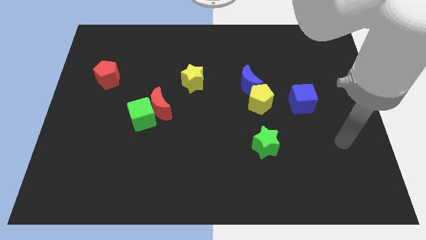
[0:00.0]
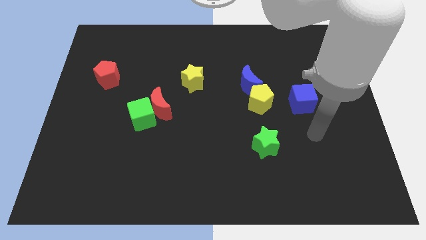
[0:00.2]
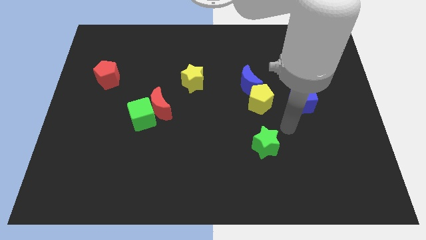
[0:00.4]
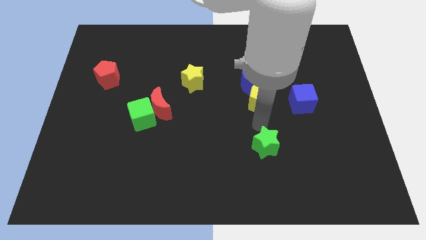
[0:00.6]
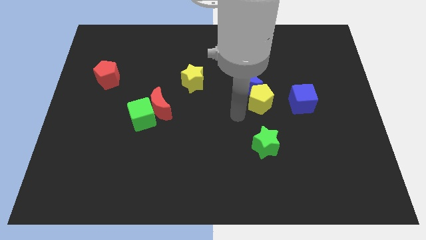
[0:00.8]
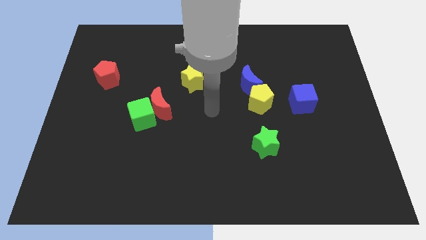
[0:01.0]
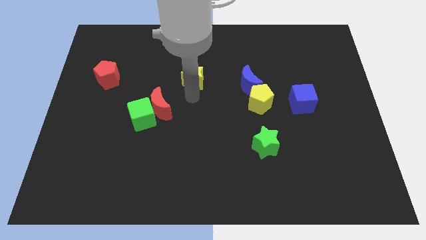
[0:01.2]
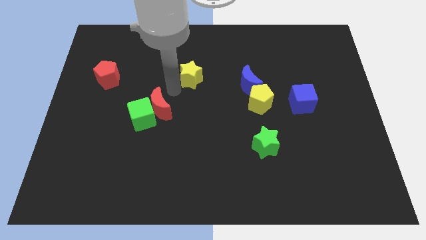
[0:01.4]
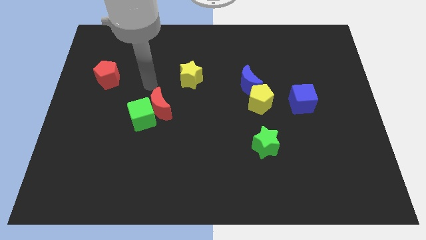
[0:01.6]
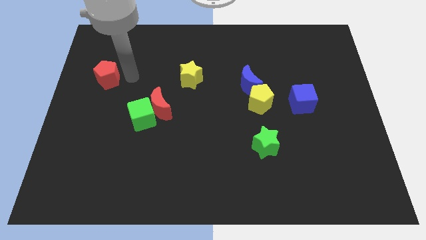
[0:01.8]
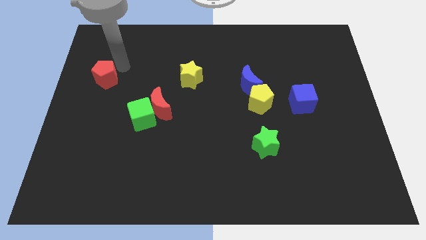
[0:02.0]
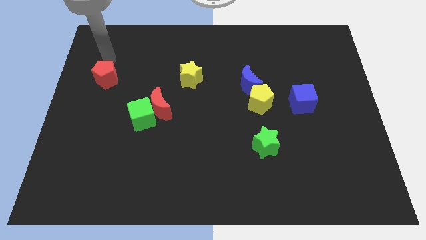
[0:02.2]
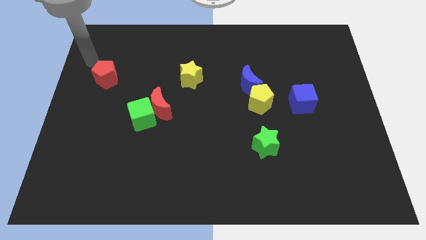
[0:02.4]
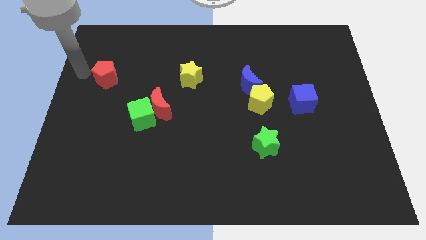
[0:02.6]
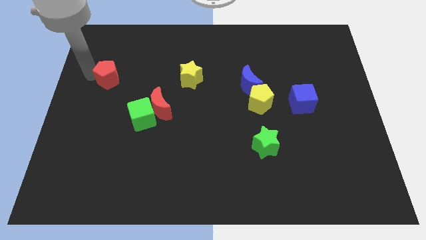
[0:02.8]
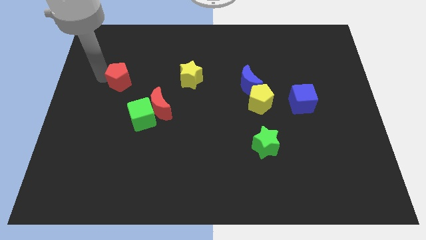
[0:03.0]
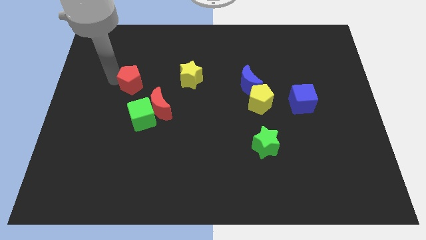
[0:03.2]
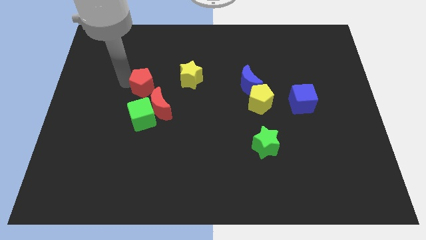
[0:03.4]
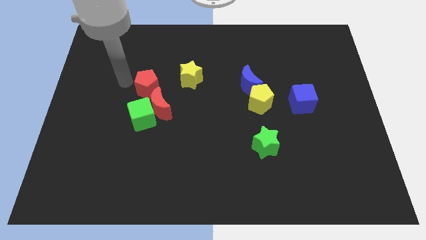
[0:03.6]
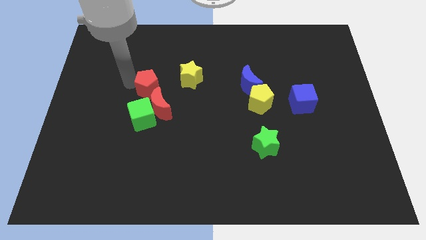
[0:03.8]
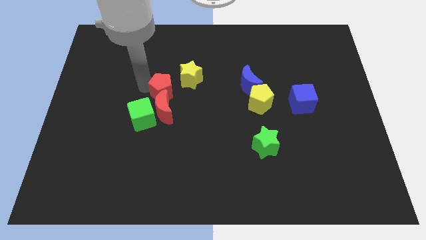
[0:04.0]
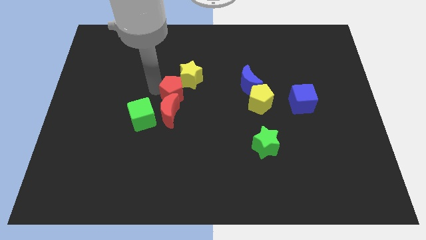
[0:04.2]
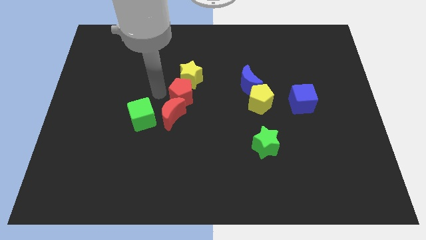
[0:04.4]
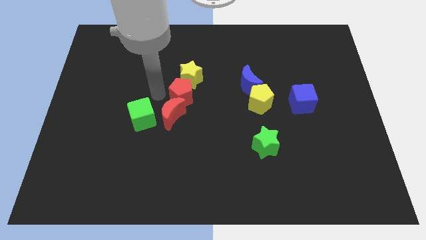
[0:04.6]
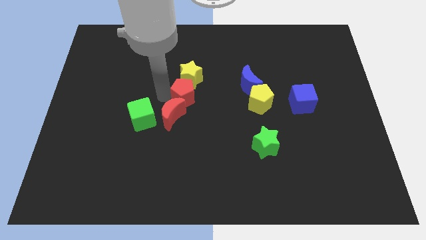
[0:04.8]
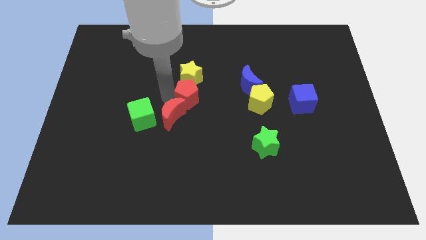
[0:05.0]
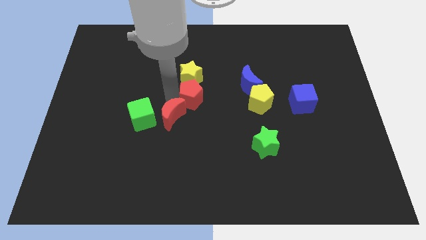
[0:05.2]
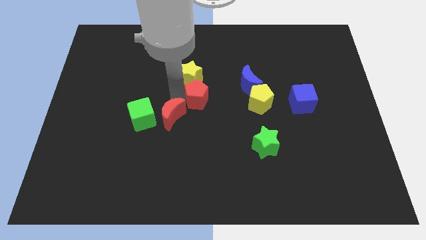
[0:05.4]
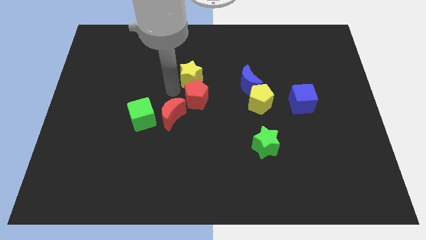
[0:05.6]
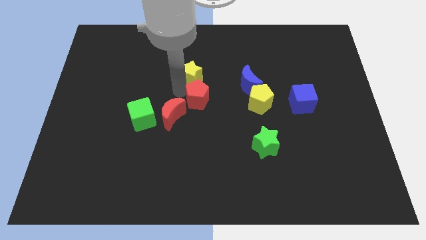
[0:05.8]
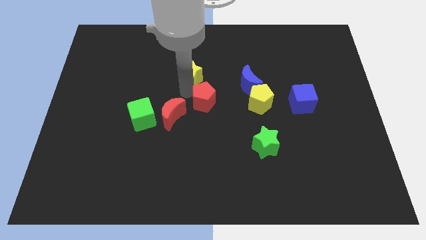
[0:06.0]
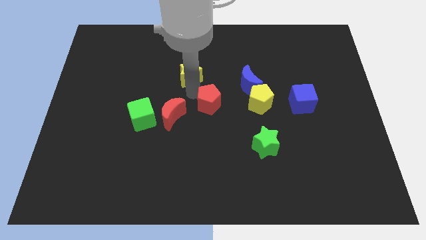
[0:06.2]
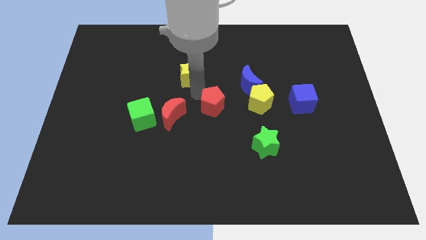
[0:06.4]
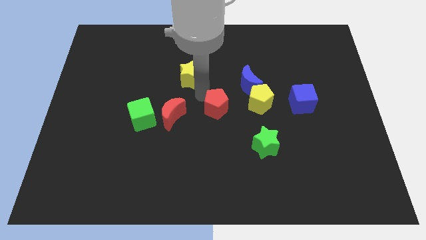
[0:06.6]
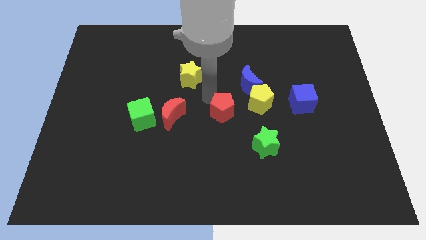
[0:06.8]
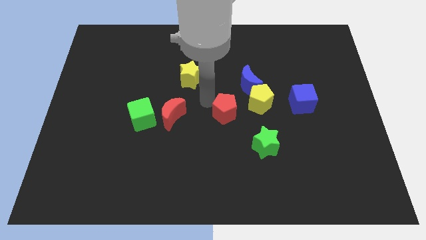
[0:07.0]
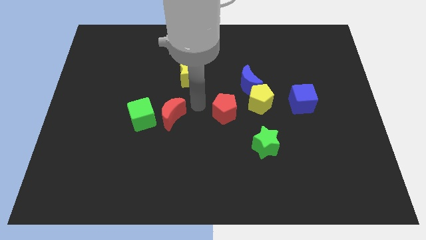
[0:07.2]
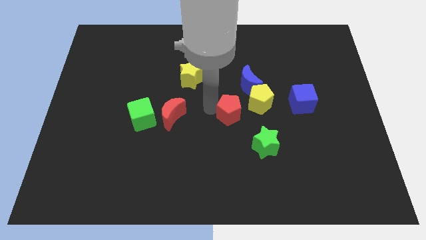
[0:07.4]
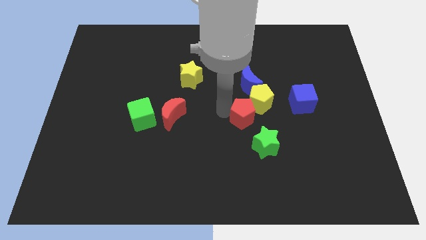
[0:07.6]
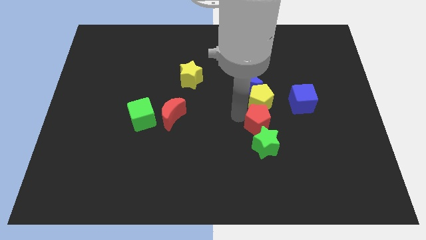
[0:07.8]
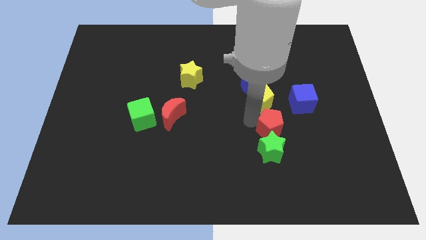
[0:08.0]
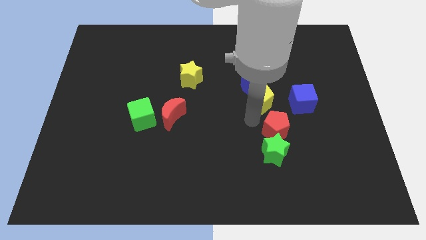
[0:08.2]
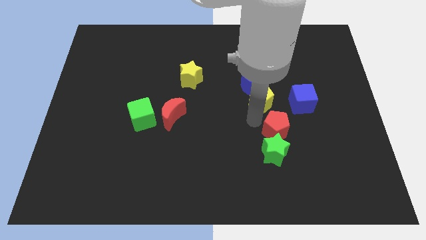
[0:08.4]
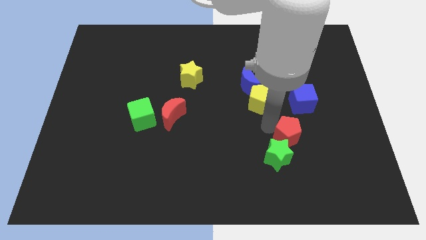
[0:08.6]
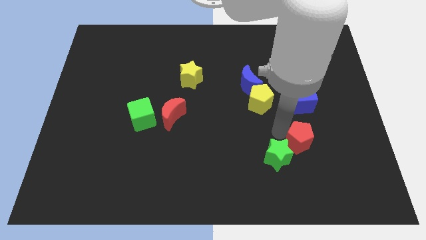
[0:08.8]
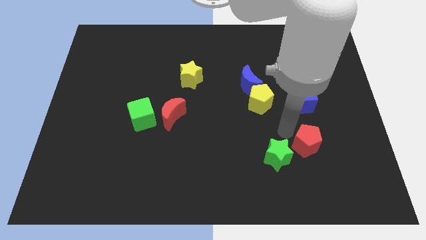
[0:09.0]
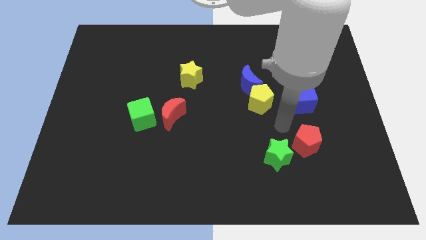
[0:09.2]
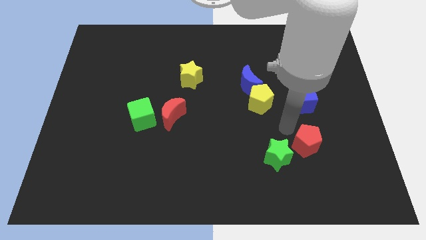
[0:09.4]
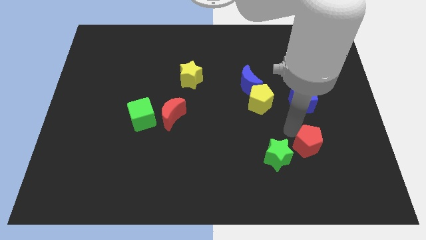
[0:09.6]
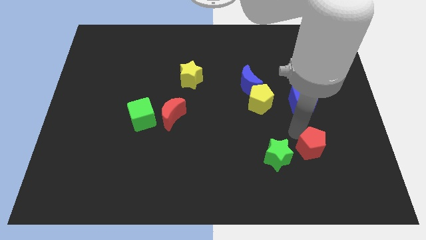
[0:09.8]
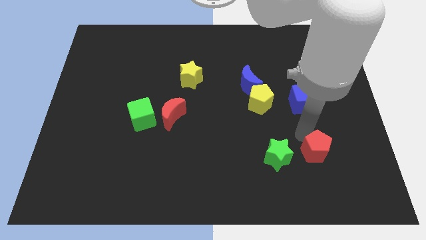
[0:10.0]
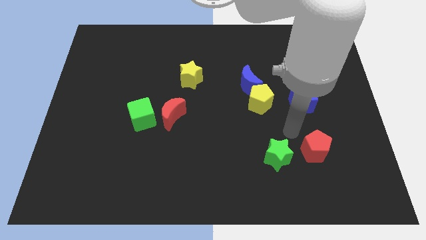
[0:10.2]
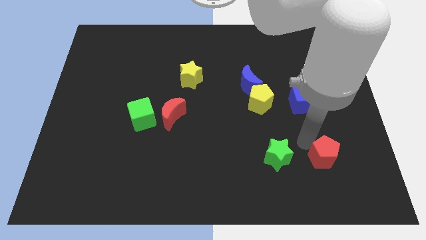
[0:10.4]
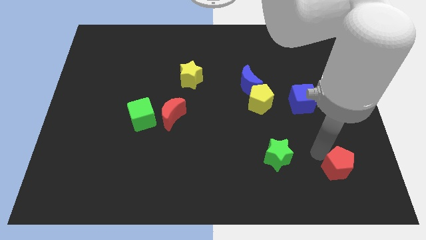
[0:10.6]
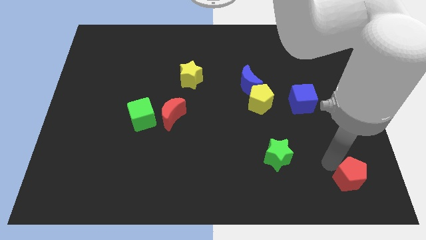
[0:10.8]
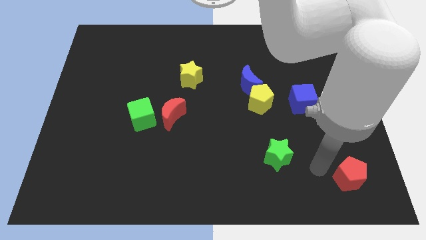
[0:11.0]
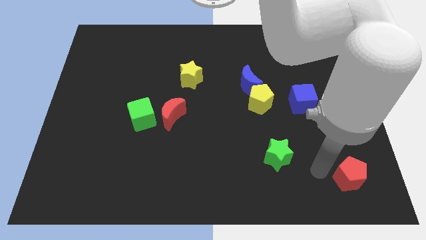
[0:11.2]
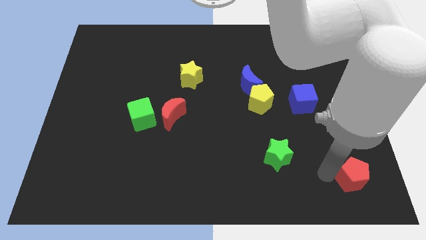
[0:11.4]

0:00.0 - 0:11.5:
push the red pentagon to the lower right corner

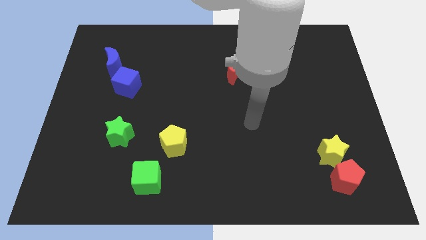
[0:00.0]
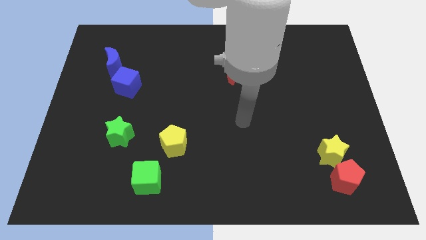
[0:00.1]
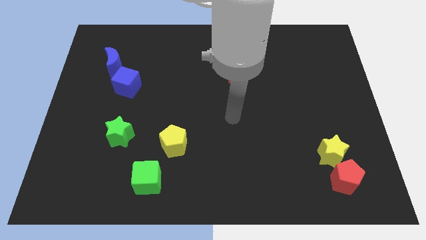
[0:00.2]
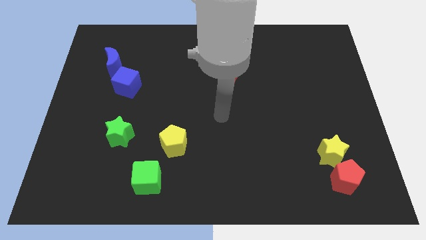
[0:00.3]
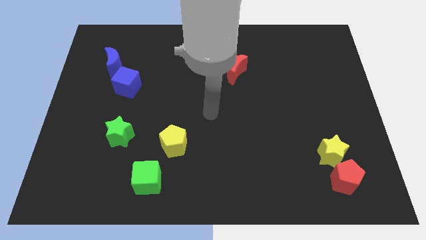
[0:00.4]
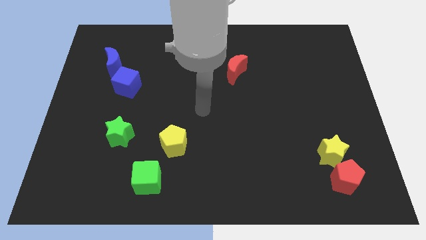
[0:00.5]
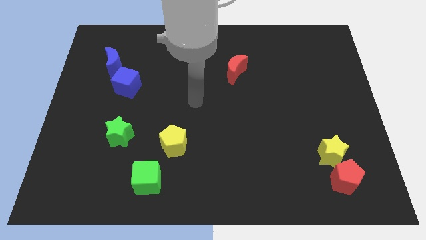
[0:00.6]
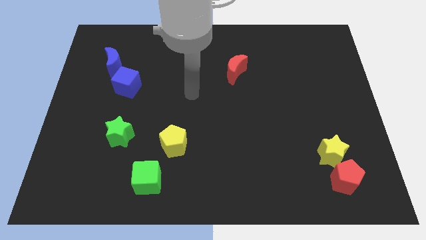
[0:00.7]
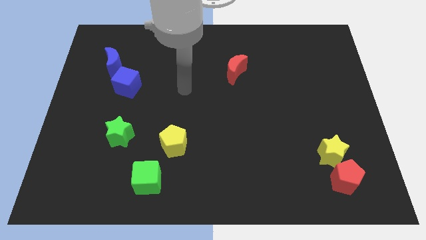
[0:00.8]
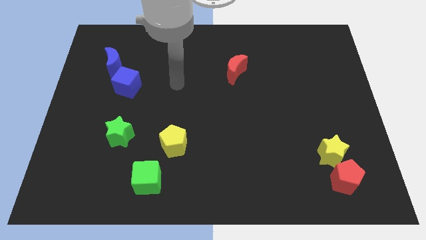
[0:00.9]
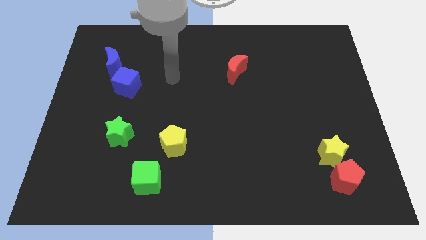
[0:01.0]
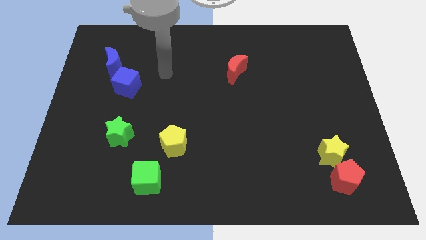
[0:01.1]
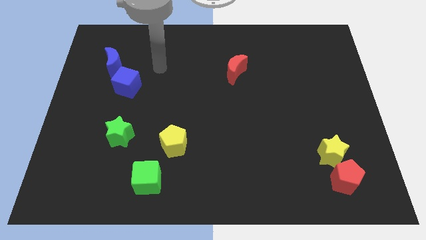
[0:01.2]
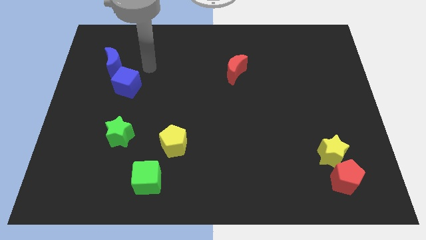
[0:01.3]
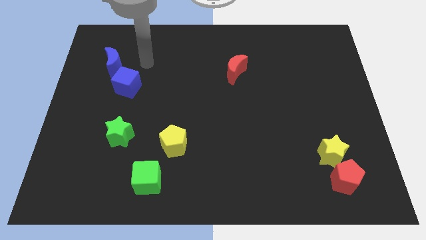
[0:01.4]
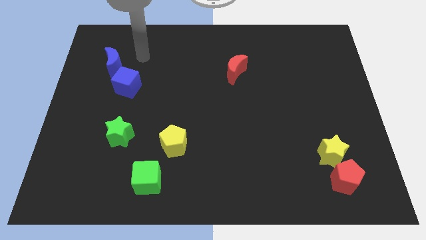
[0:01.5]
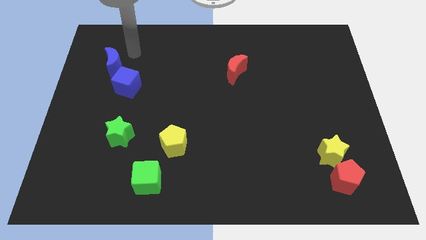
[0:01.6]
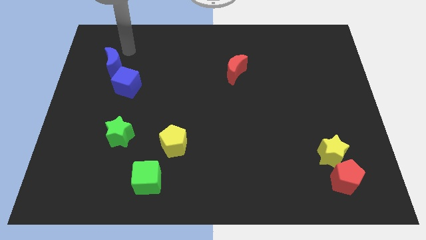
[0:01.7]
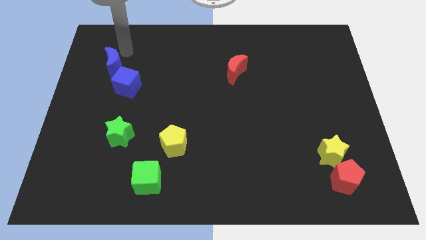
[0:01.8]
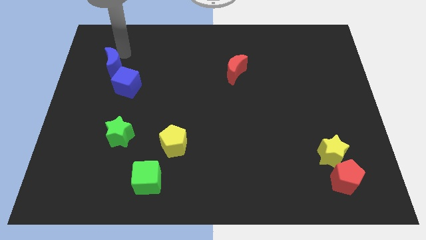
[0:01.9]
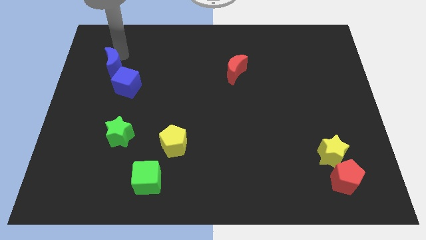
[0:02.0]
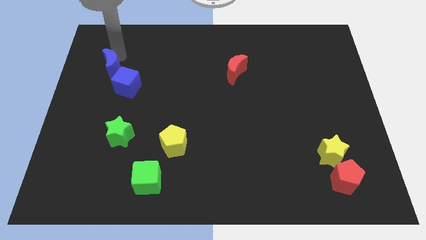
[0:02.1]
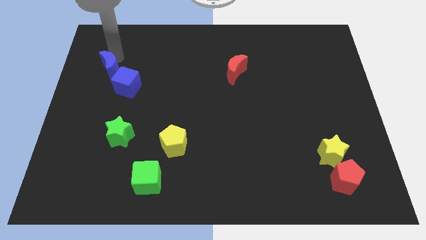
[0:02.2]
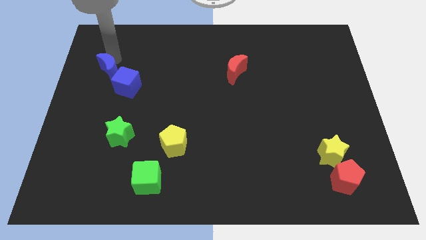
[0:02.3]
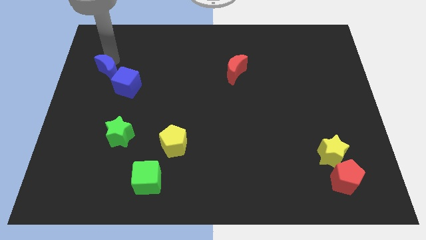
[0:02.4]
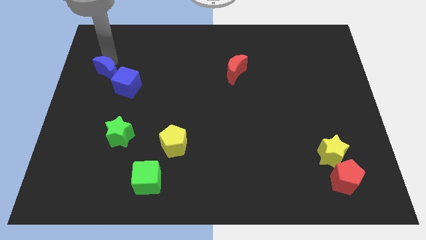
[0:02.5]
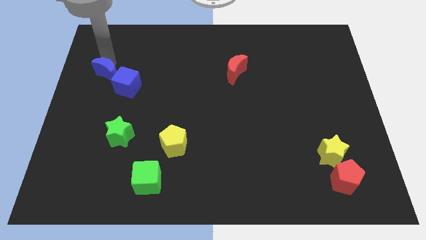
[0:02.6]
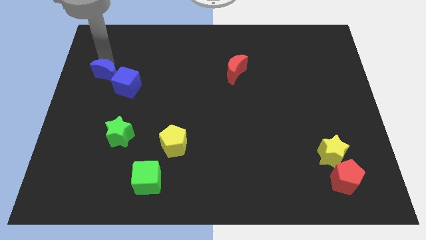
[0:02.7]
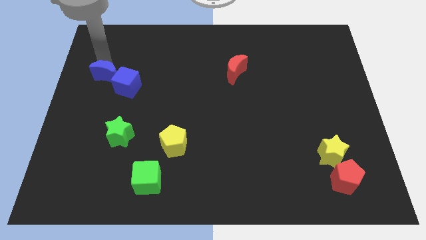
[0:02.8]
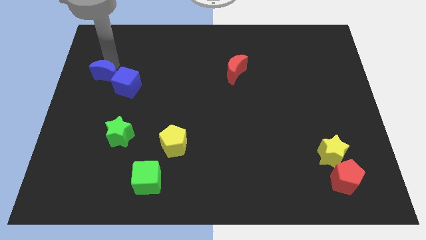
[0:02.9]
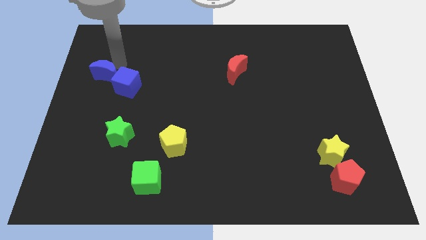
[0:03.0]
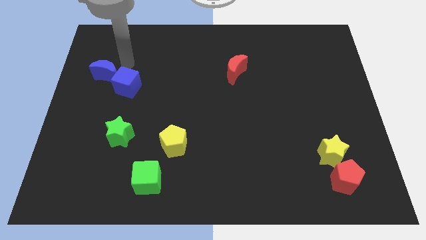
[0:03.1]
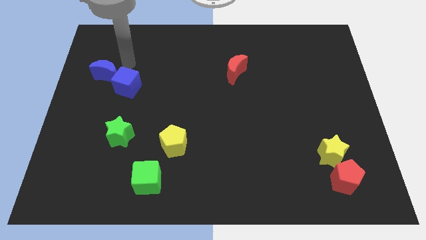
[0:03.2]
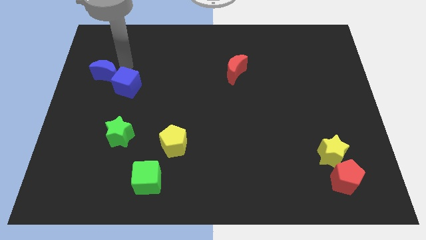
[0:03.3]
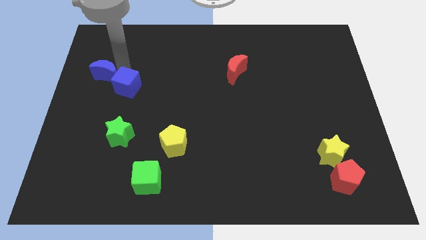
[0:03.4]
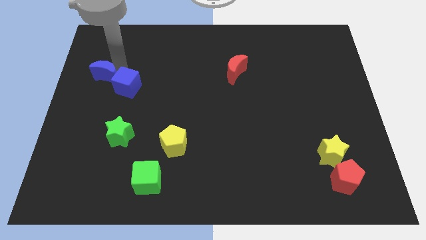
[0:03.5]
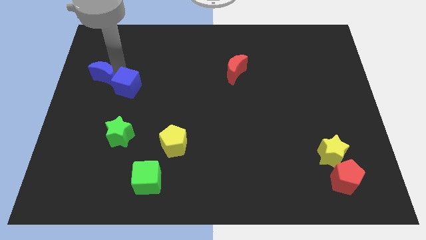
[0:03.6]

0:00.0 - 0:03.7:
slide the blue moon to the center left
